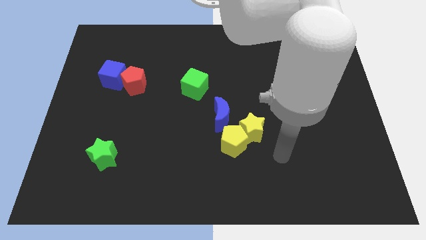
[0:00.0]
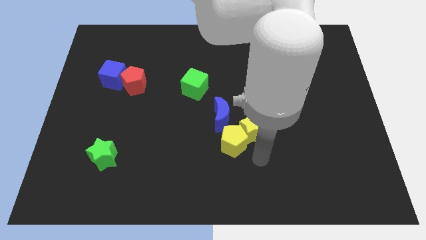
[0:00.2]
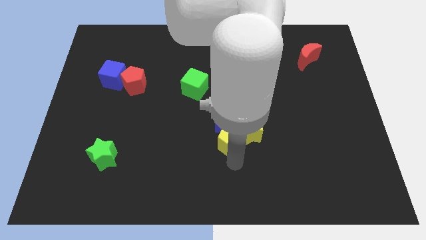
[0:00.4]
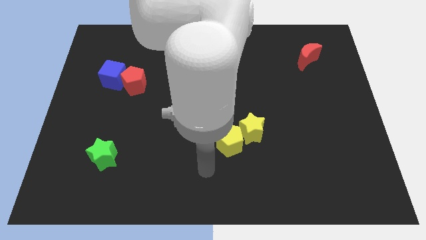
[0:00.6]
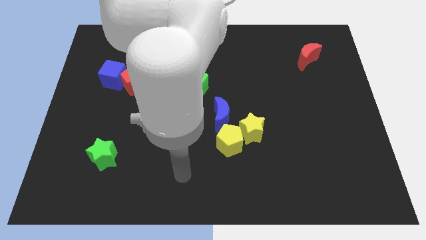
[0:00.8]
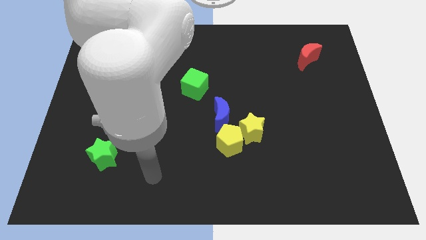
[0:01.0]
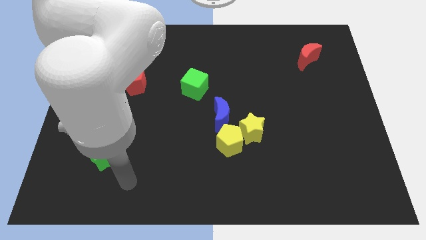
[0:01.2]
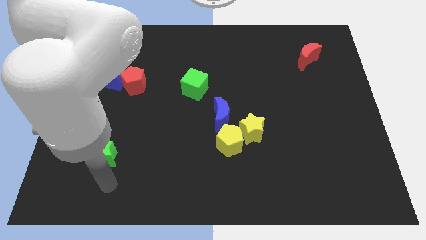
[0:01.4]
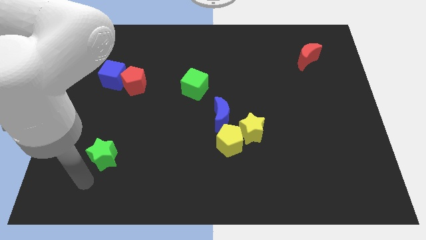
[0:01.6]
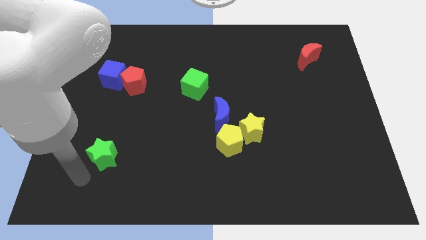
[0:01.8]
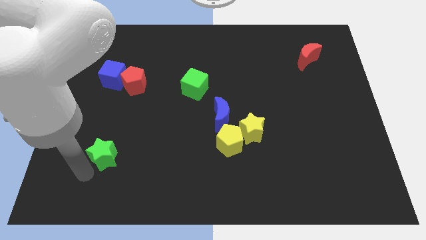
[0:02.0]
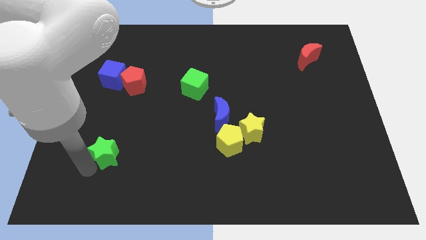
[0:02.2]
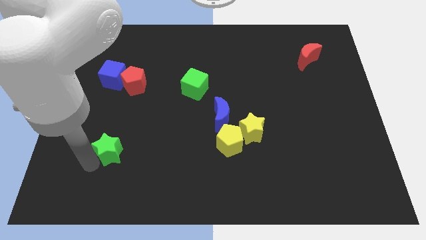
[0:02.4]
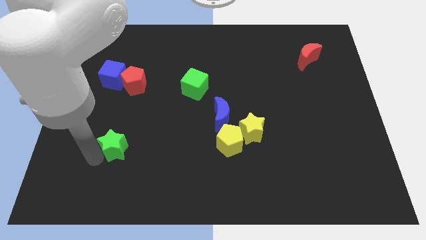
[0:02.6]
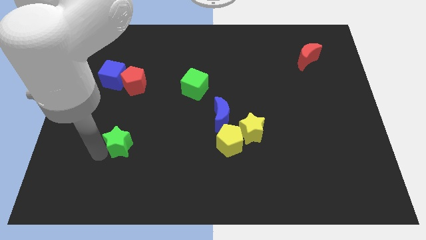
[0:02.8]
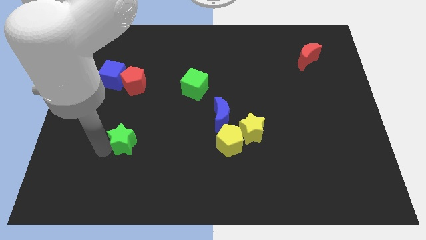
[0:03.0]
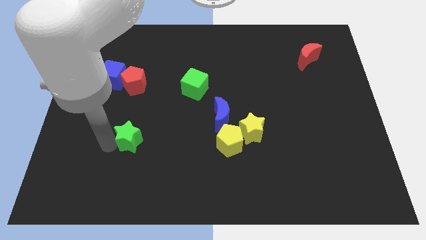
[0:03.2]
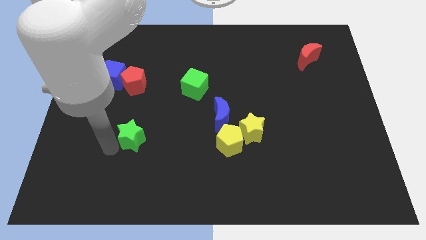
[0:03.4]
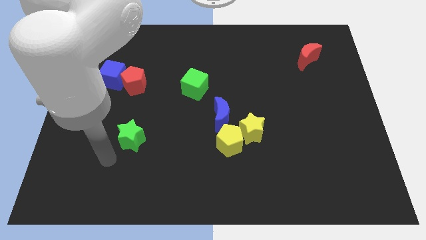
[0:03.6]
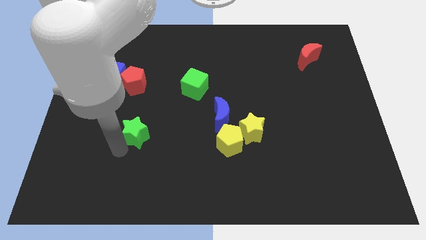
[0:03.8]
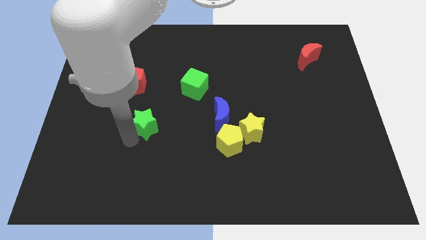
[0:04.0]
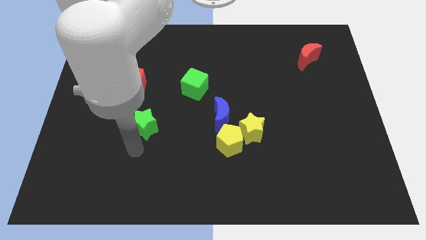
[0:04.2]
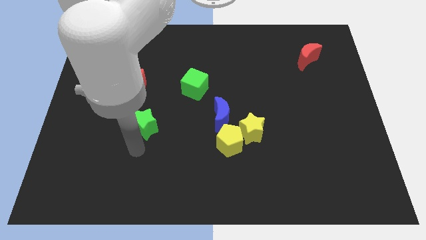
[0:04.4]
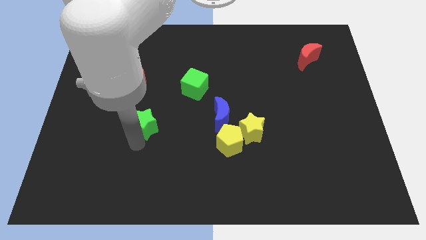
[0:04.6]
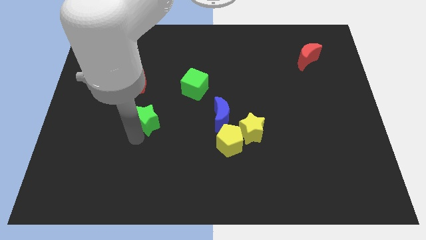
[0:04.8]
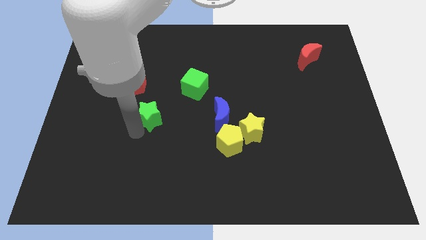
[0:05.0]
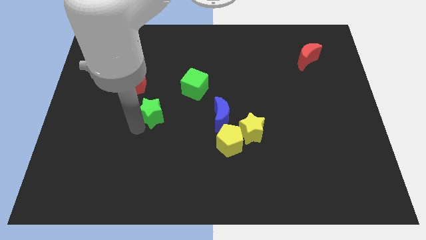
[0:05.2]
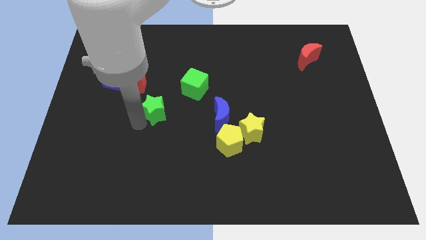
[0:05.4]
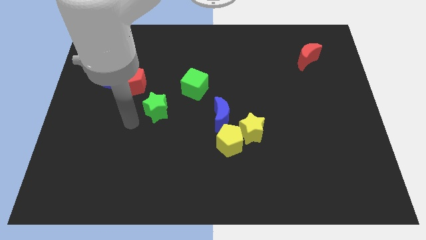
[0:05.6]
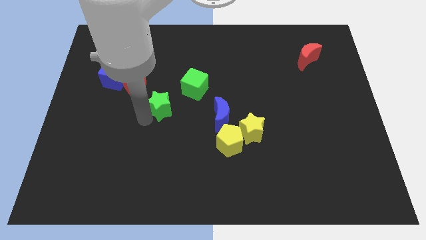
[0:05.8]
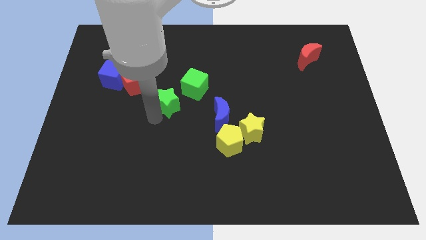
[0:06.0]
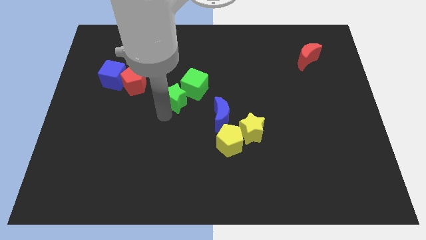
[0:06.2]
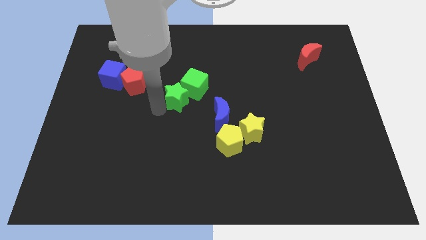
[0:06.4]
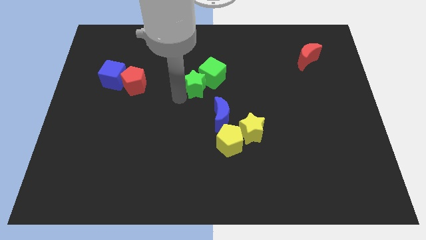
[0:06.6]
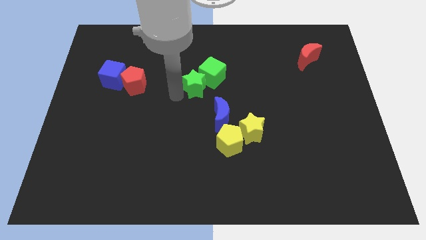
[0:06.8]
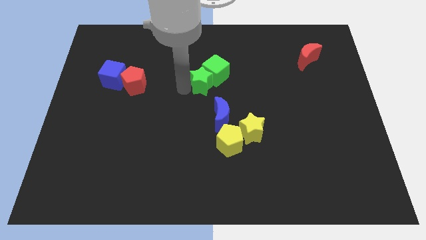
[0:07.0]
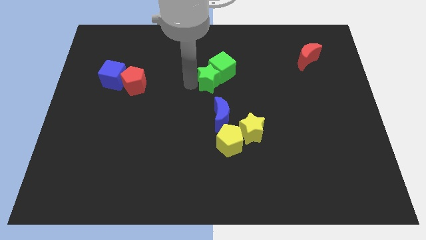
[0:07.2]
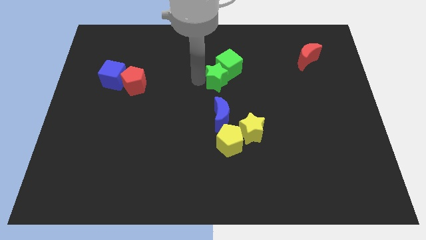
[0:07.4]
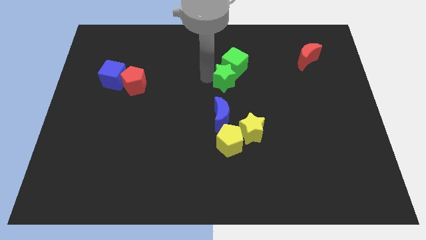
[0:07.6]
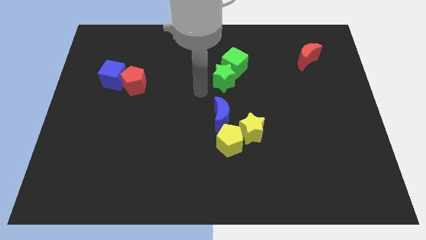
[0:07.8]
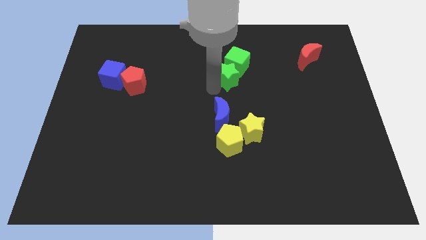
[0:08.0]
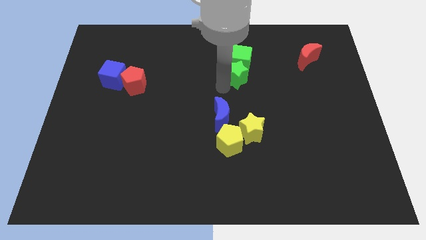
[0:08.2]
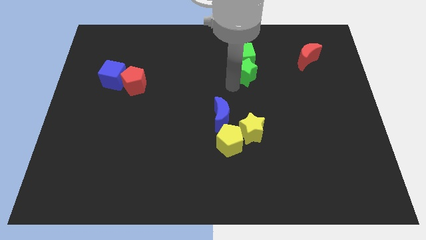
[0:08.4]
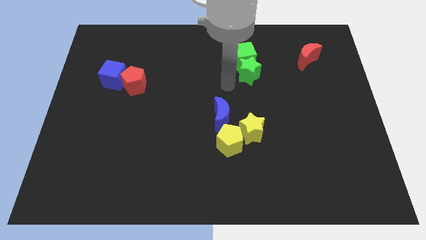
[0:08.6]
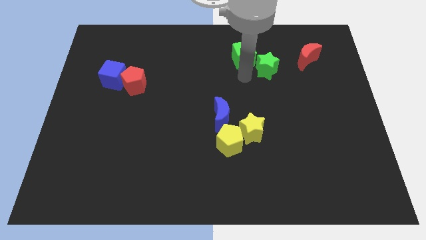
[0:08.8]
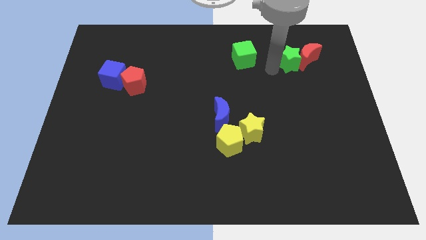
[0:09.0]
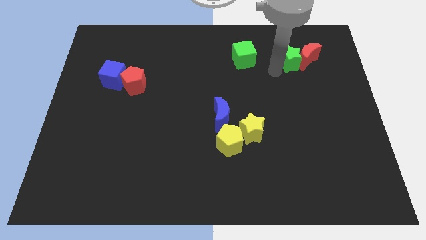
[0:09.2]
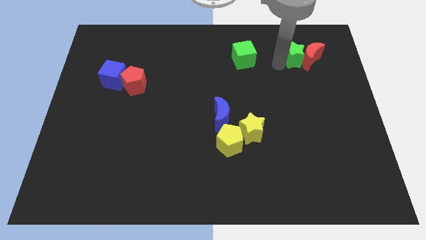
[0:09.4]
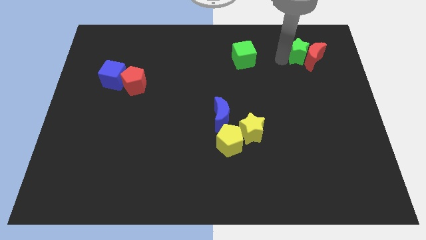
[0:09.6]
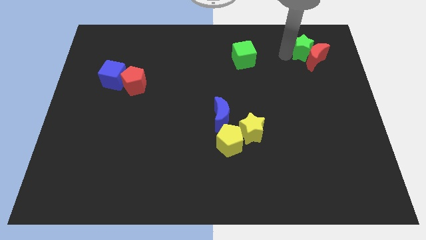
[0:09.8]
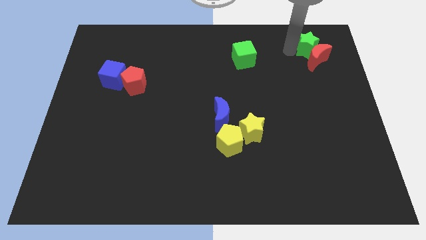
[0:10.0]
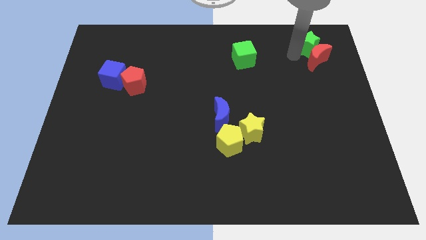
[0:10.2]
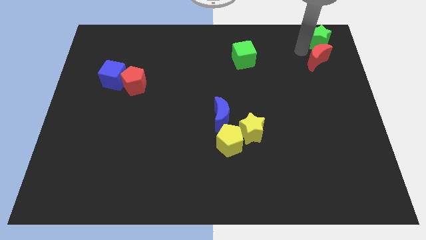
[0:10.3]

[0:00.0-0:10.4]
slide the green star to the top right corner

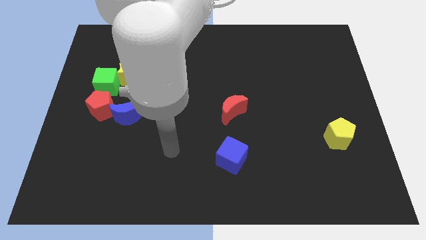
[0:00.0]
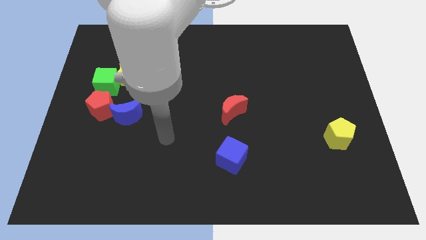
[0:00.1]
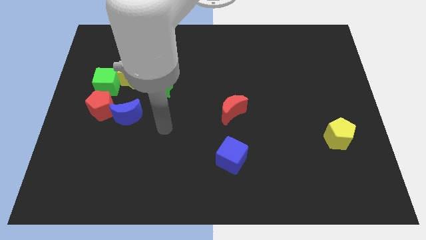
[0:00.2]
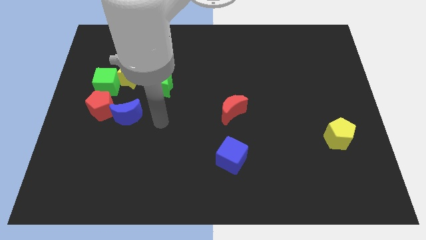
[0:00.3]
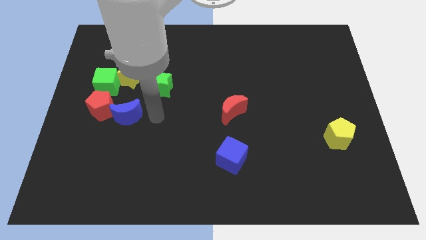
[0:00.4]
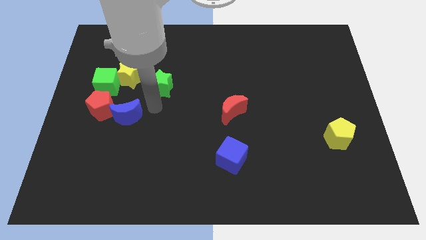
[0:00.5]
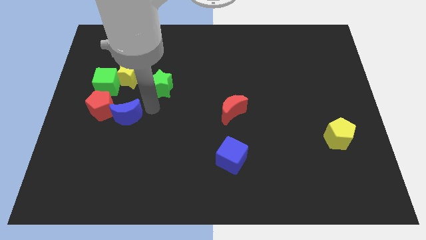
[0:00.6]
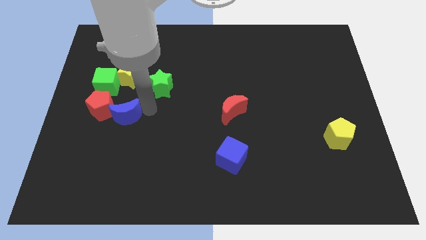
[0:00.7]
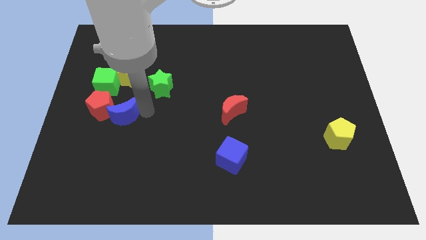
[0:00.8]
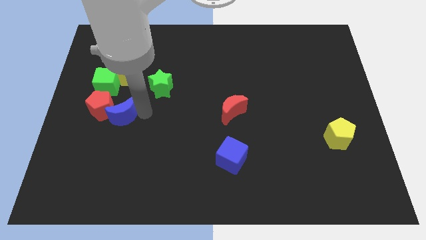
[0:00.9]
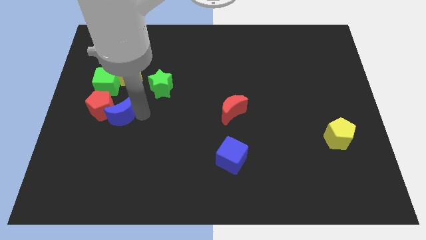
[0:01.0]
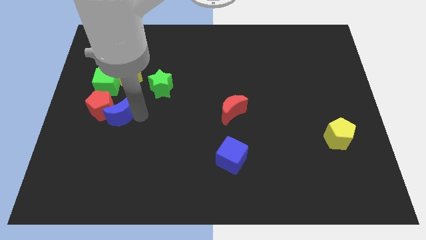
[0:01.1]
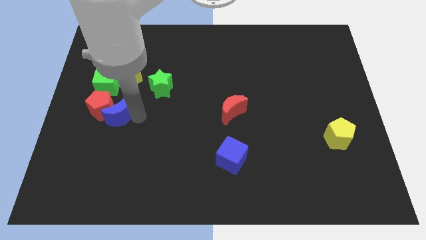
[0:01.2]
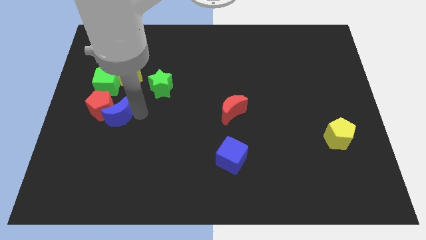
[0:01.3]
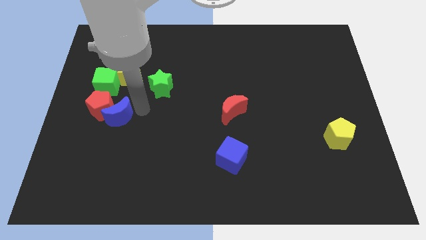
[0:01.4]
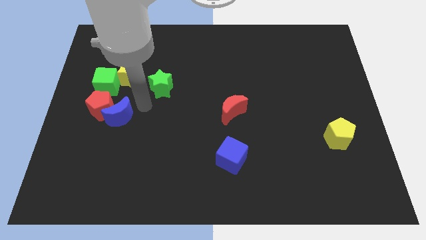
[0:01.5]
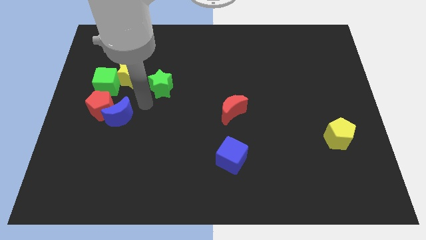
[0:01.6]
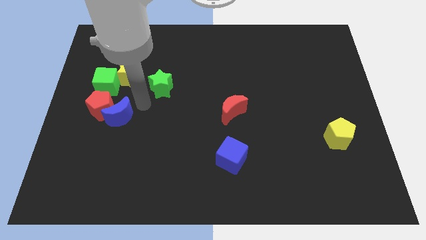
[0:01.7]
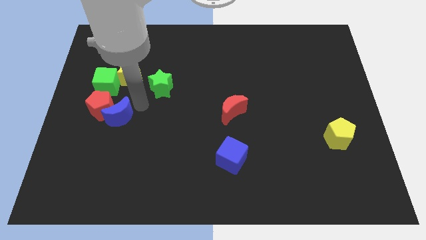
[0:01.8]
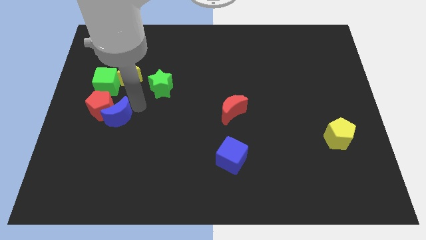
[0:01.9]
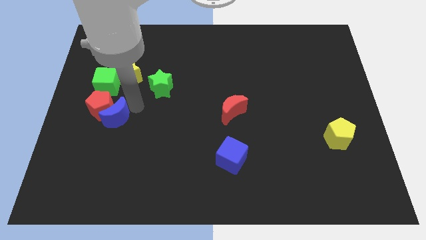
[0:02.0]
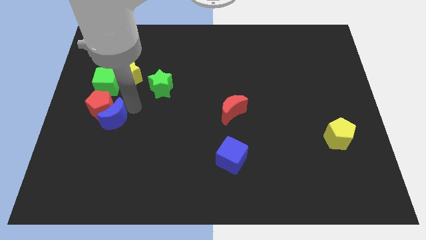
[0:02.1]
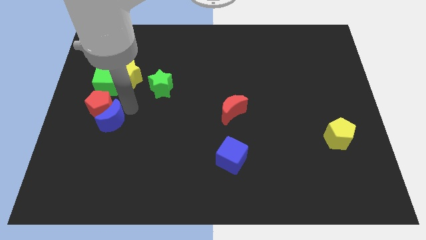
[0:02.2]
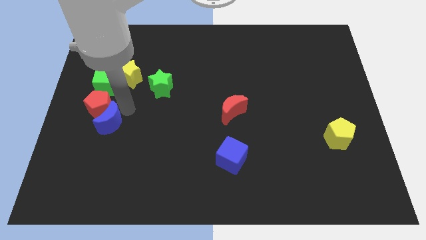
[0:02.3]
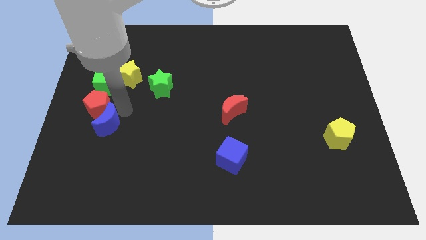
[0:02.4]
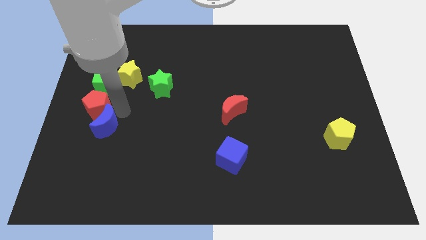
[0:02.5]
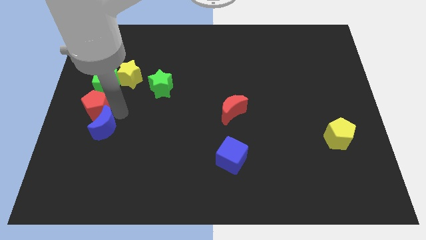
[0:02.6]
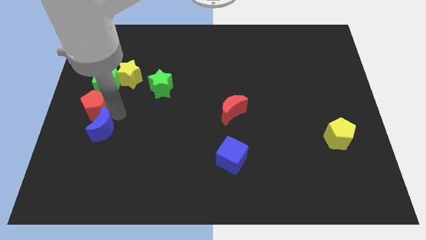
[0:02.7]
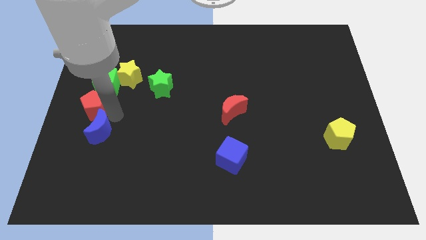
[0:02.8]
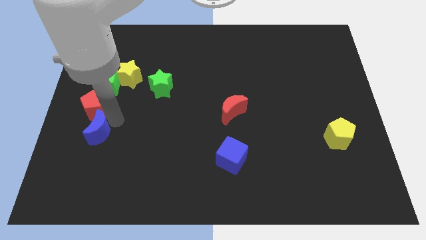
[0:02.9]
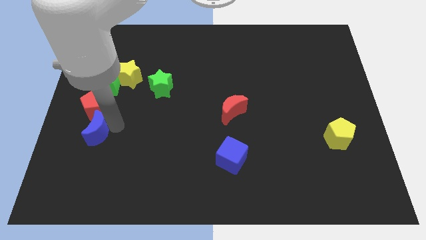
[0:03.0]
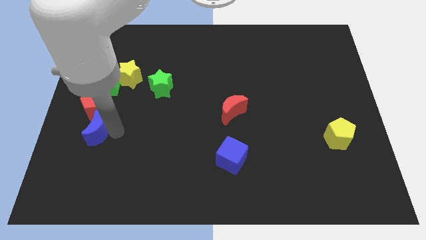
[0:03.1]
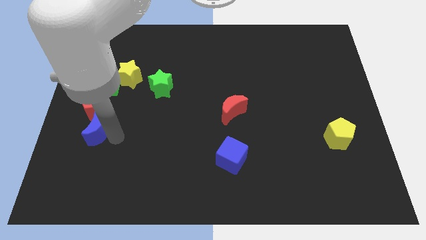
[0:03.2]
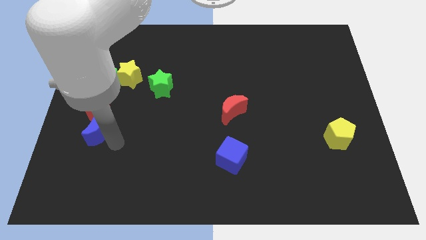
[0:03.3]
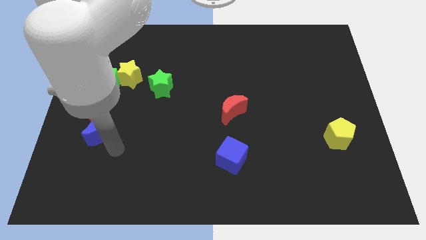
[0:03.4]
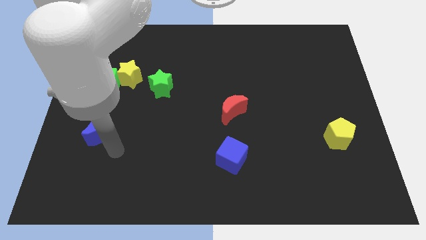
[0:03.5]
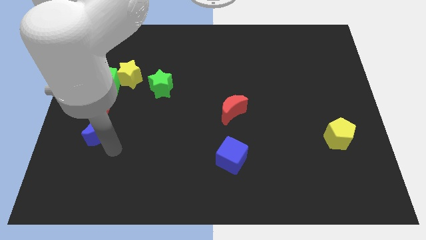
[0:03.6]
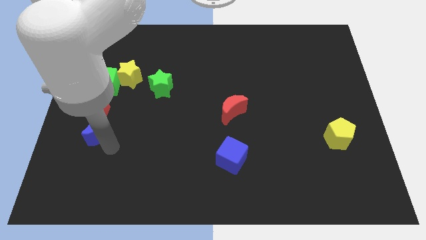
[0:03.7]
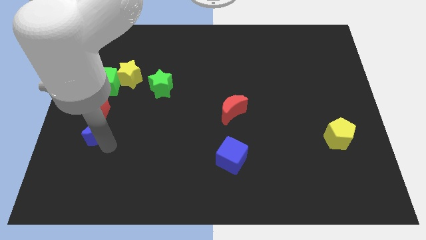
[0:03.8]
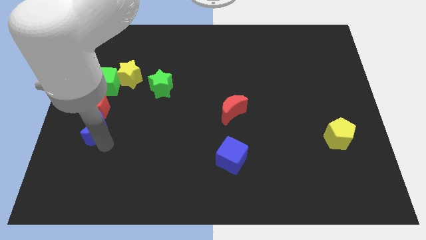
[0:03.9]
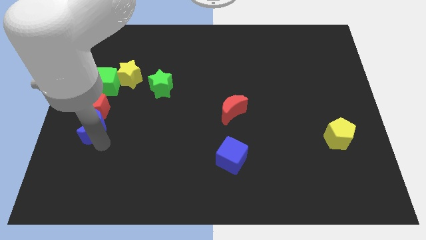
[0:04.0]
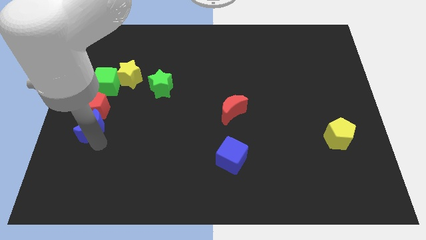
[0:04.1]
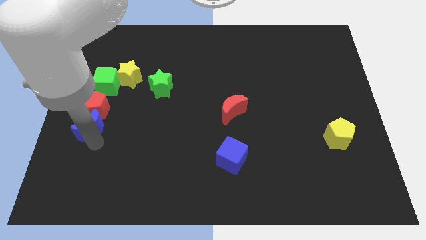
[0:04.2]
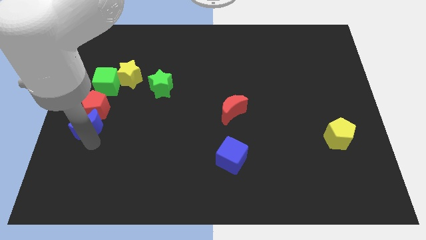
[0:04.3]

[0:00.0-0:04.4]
move the blue moon to the center left
